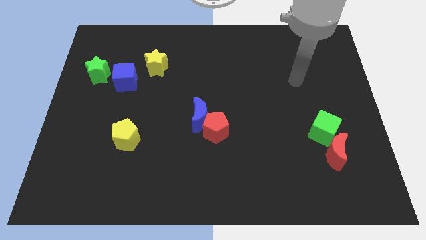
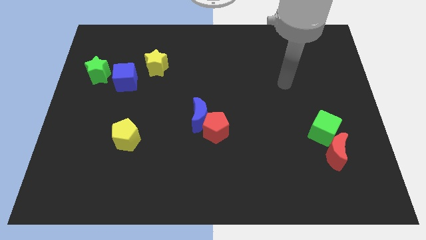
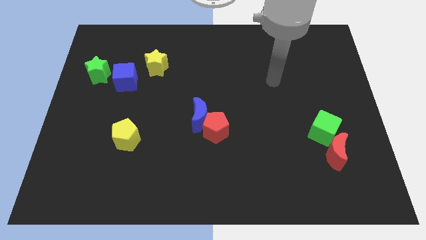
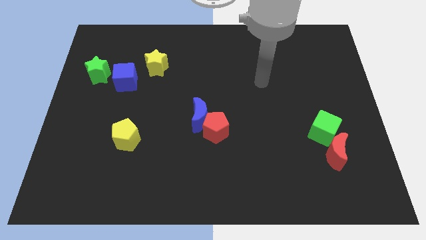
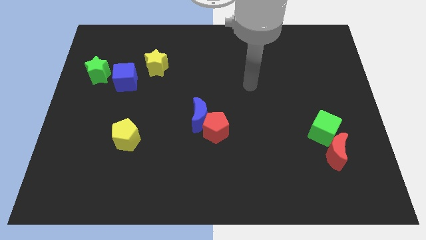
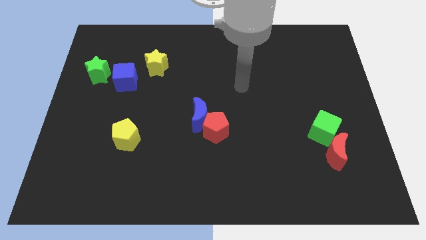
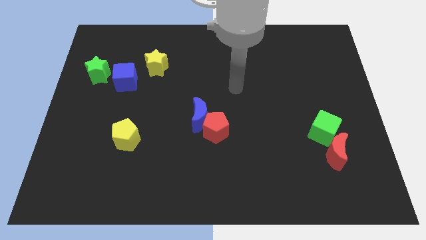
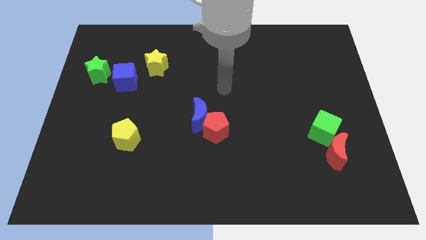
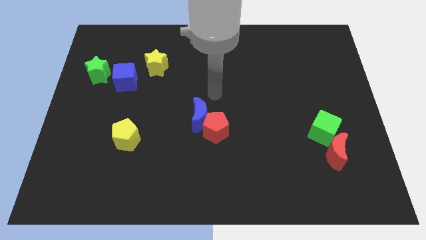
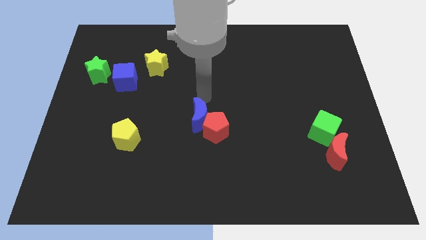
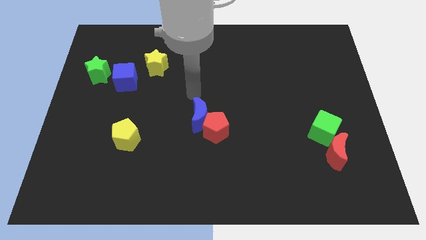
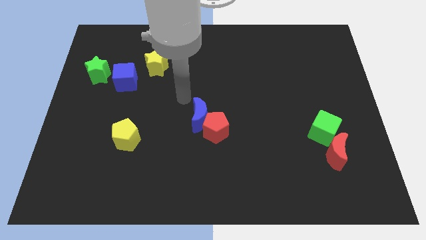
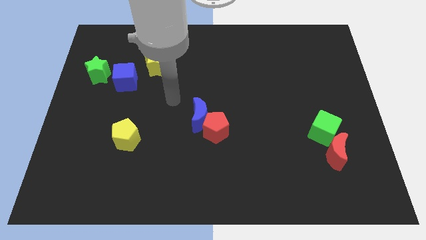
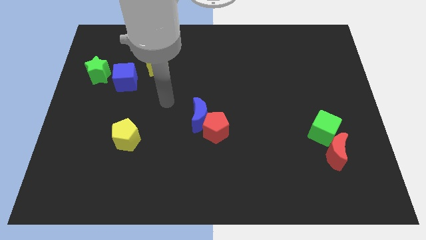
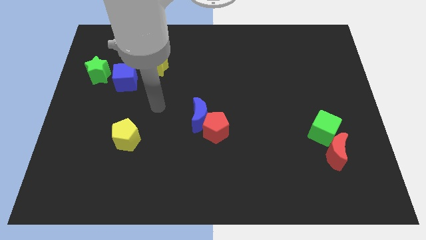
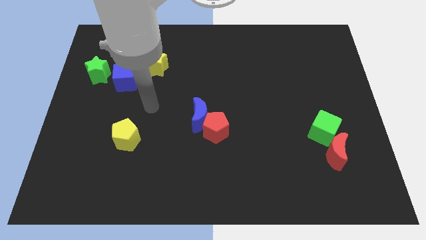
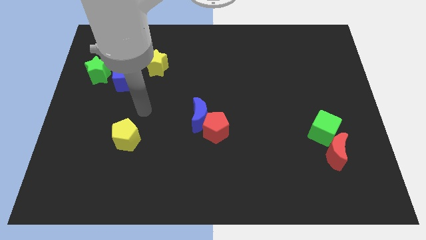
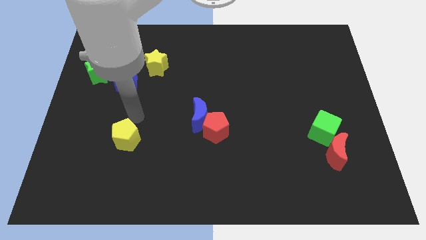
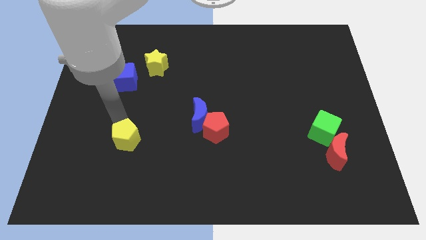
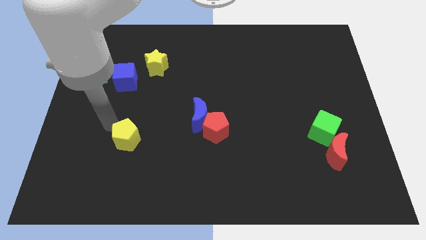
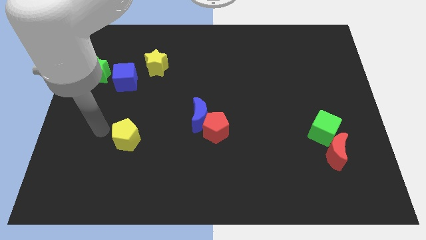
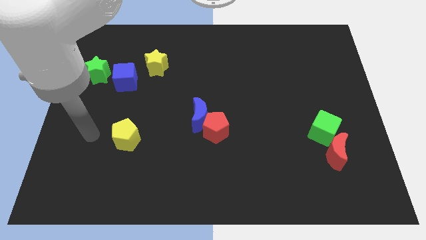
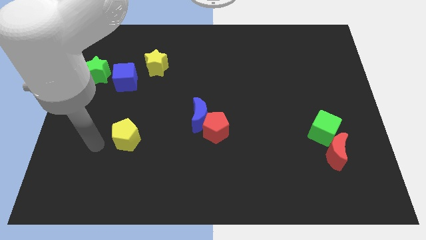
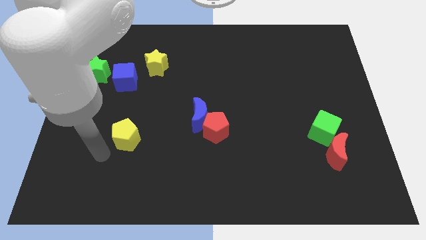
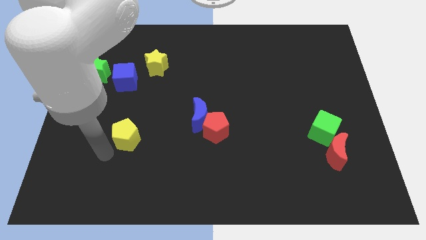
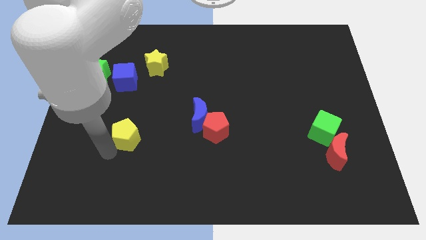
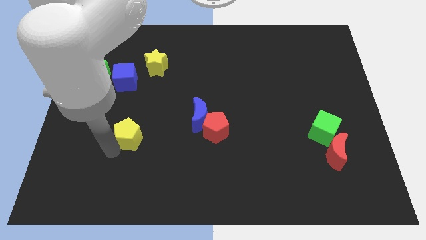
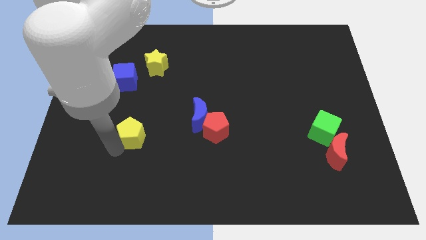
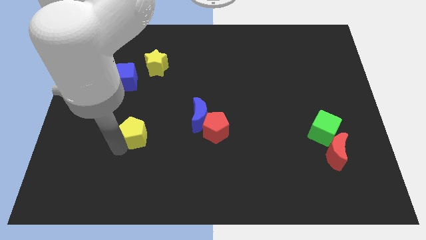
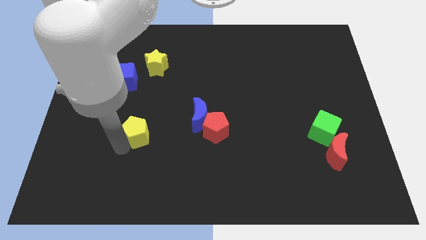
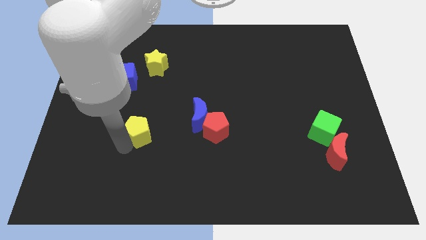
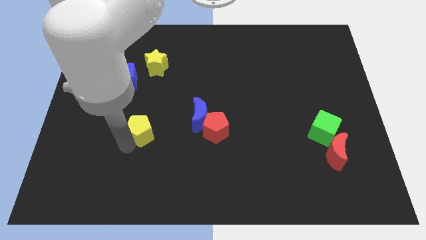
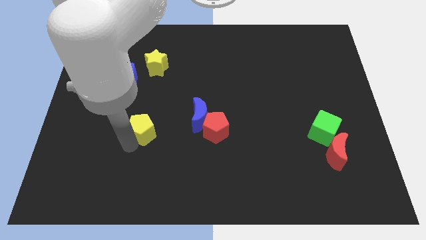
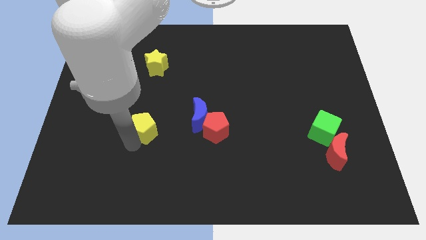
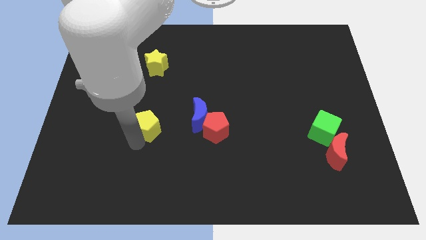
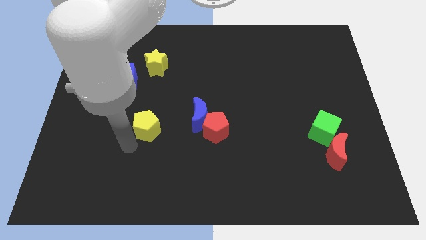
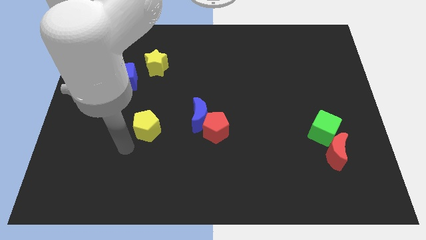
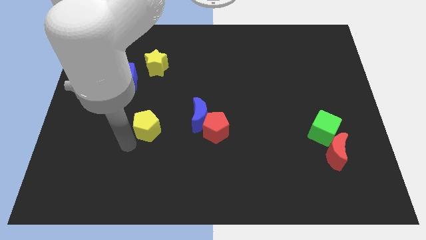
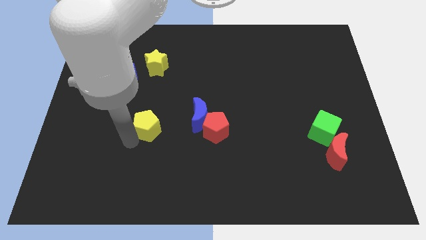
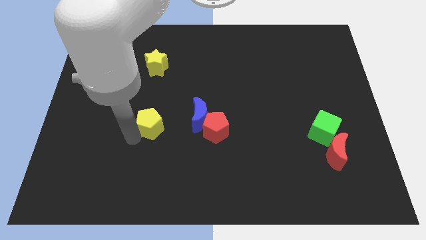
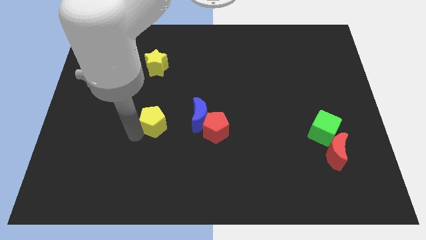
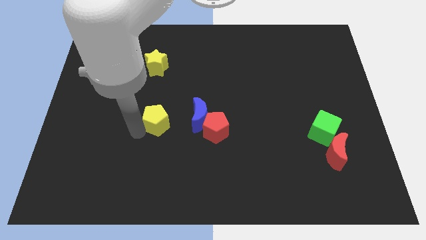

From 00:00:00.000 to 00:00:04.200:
push the yellow pentagon upwards and then to the right somewhat

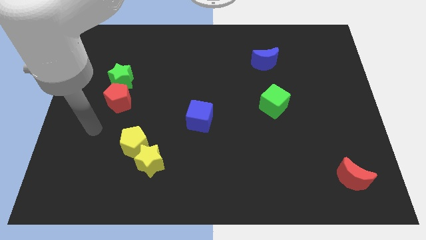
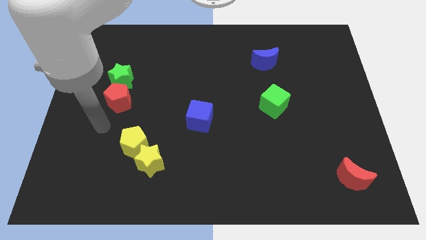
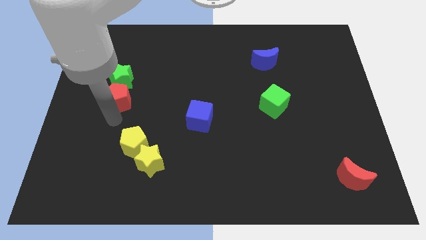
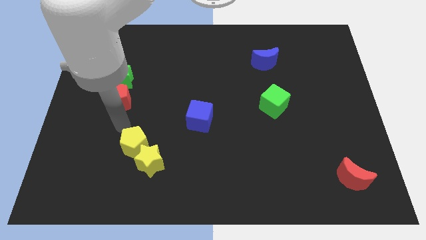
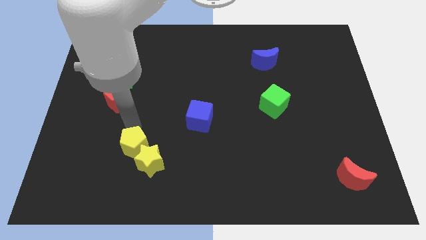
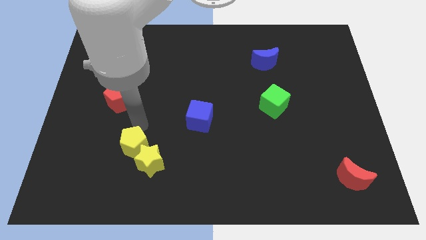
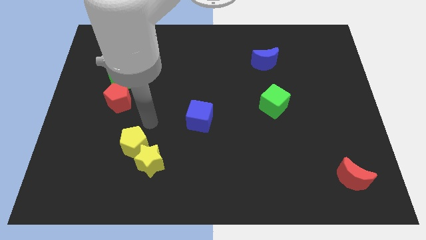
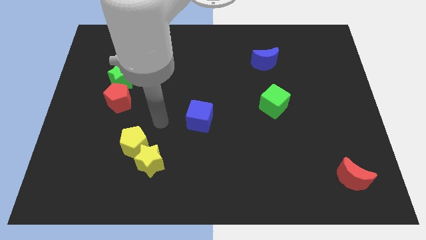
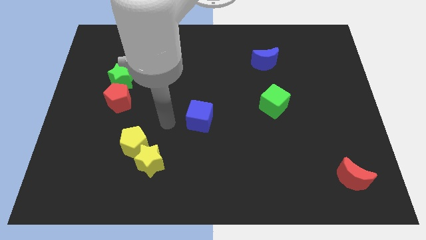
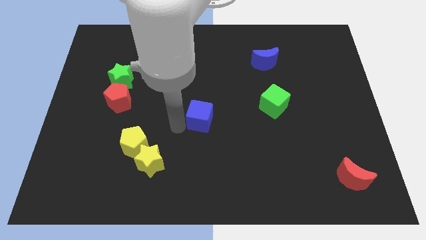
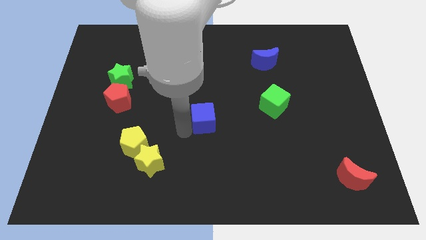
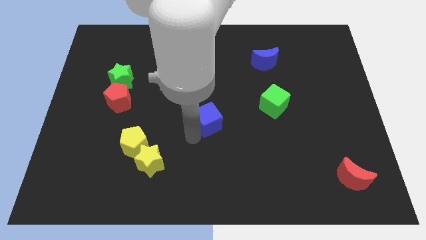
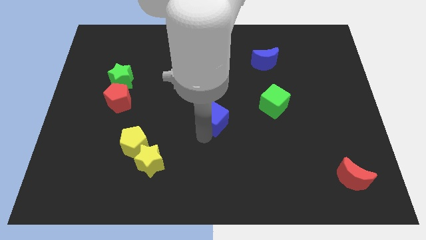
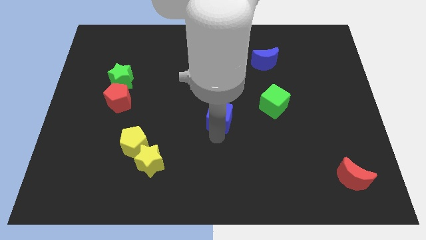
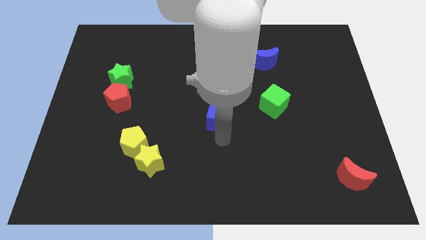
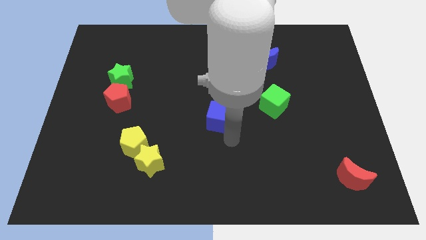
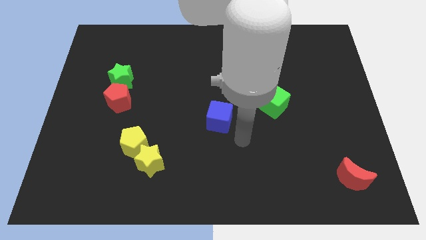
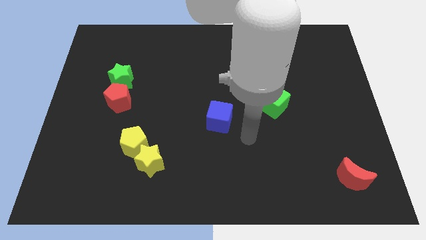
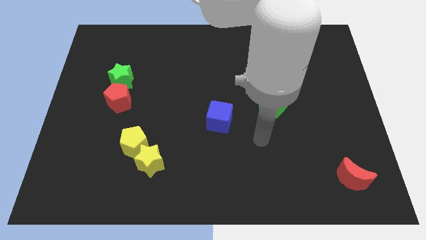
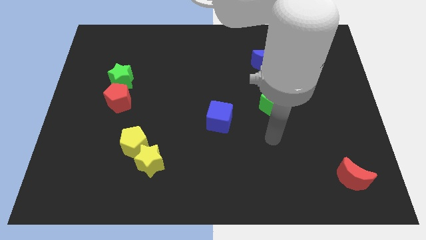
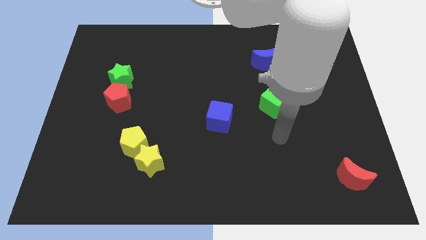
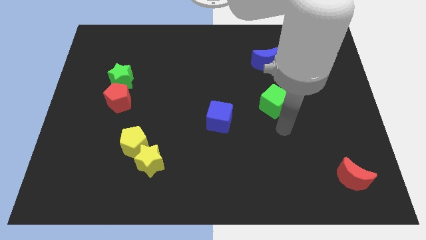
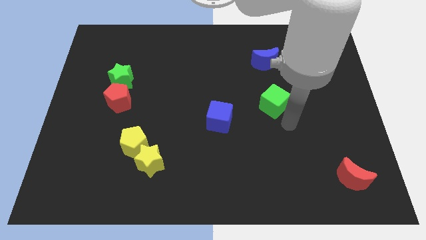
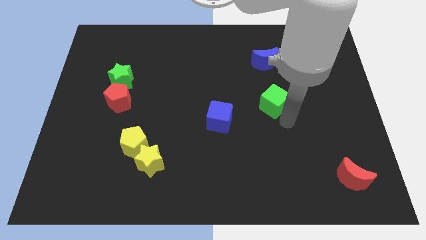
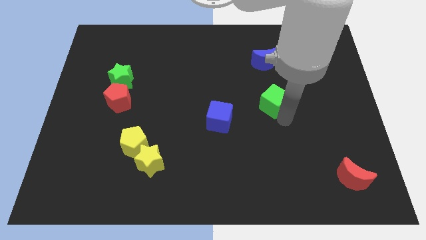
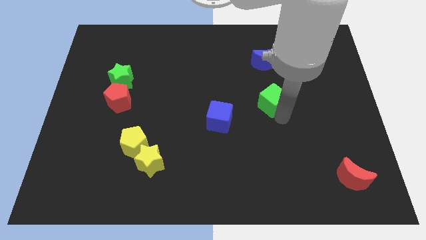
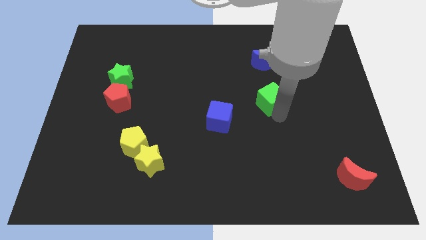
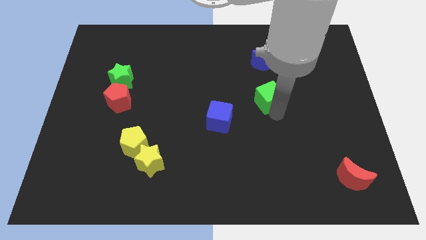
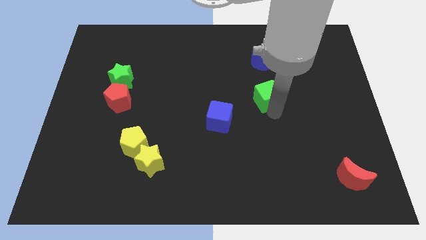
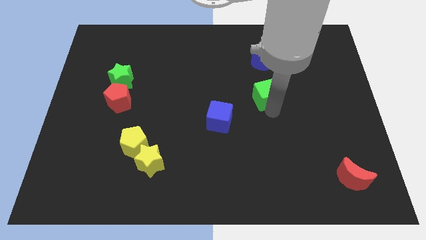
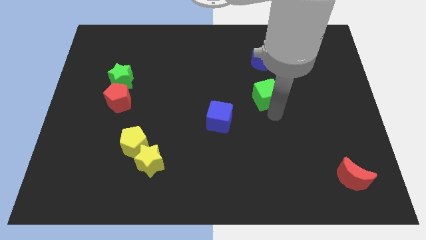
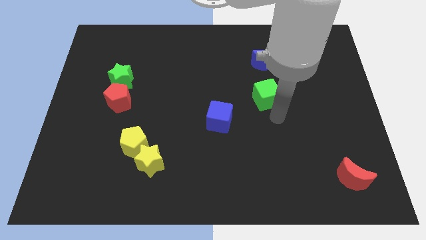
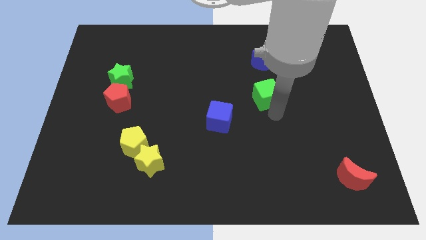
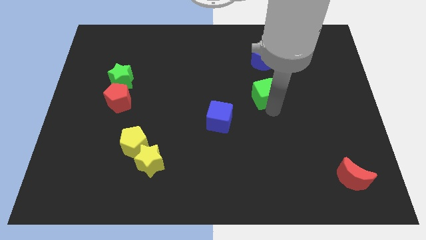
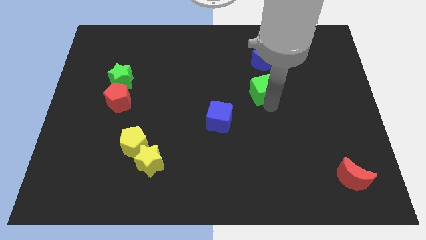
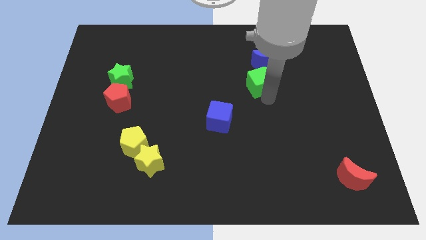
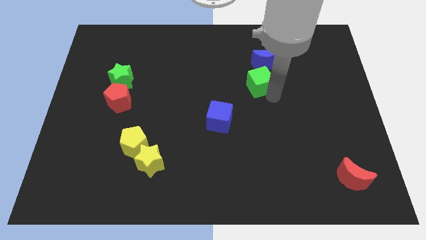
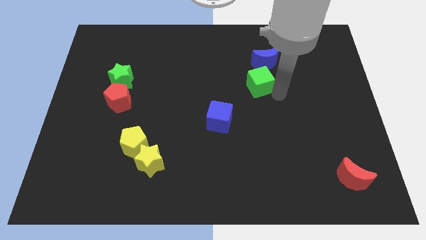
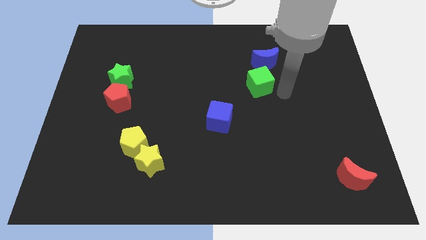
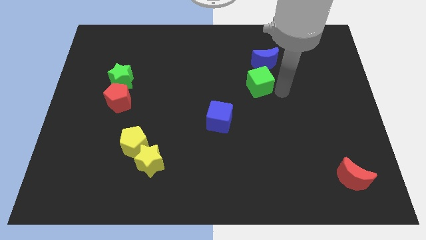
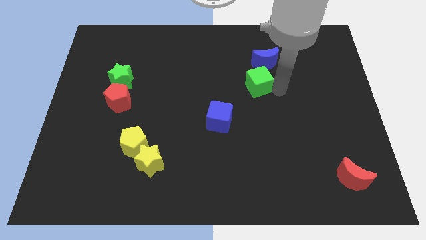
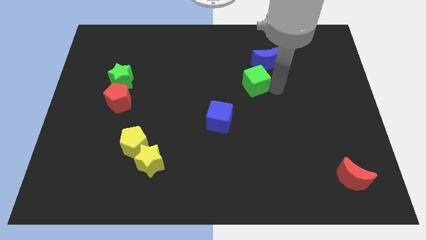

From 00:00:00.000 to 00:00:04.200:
slightly slide the green cube upwards and to the left

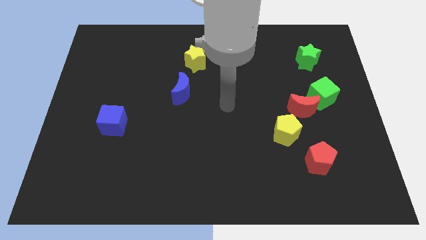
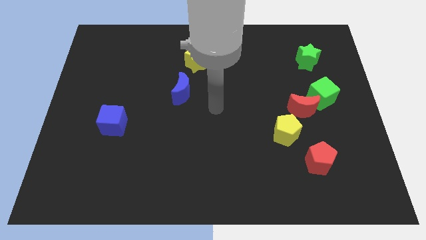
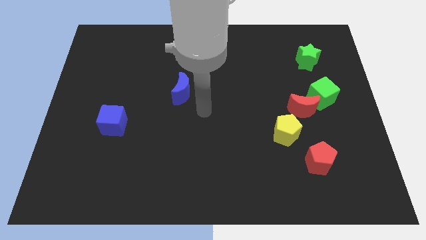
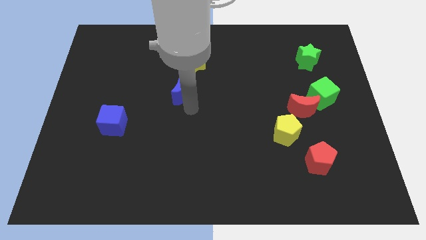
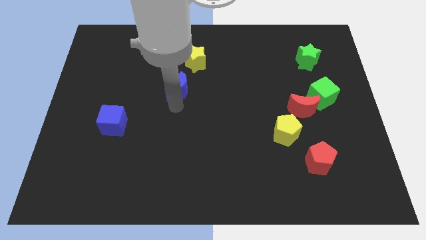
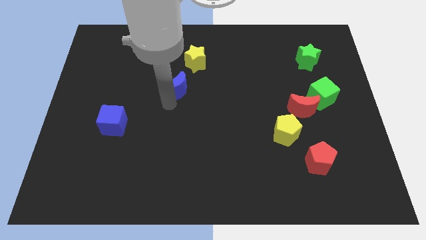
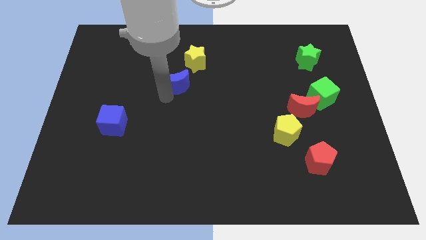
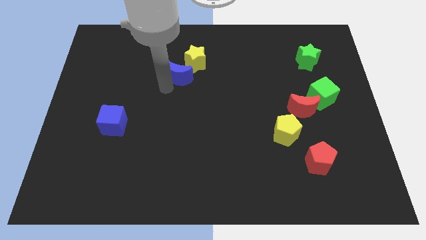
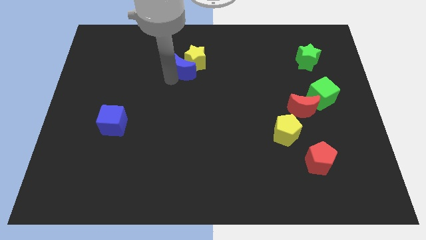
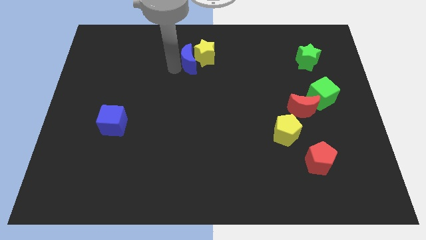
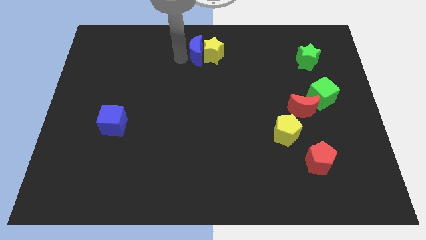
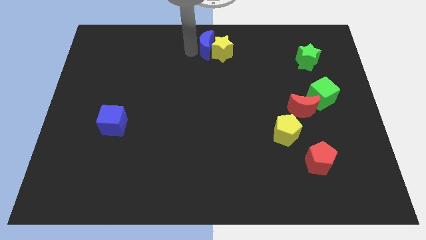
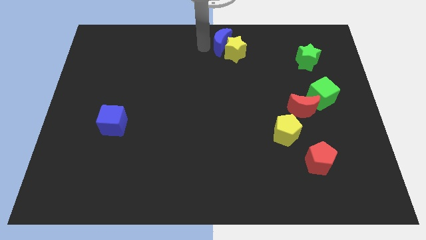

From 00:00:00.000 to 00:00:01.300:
push the yellow star slightly to the right
